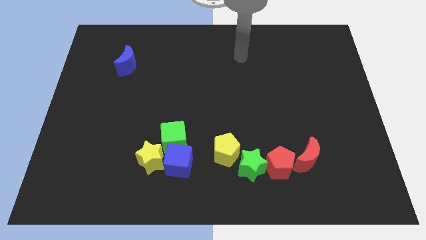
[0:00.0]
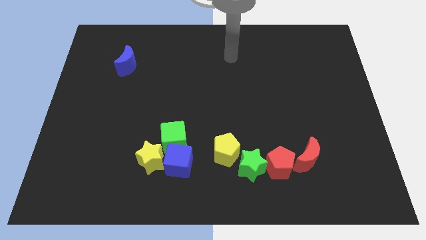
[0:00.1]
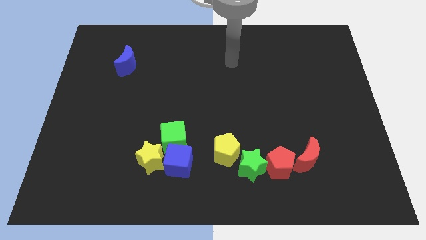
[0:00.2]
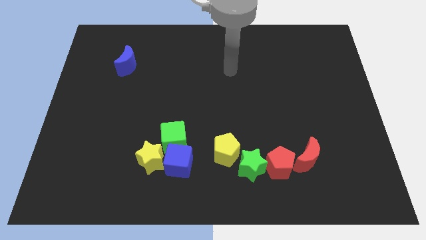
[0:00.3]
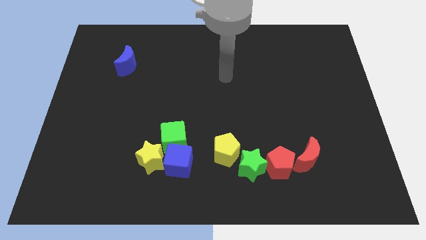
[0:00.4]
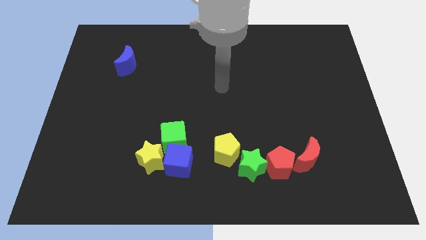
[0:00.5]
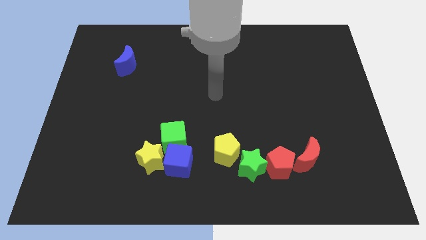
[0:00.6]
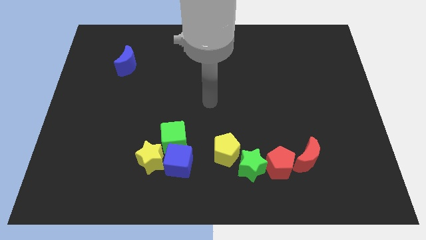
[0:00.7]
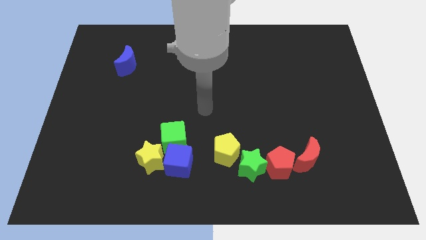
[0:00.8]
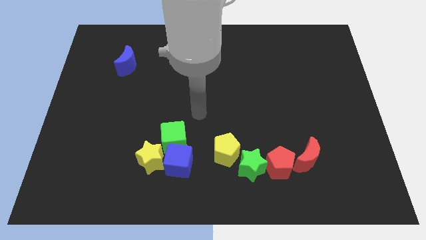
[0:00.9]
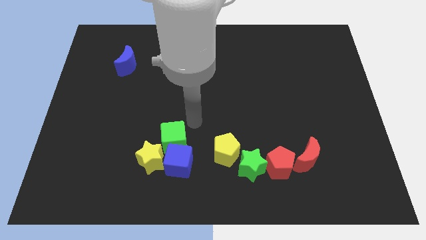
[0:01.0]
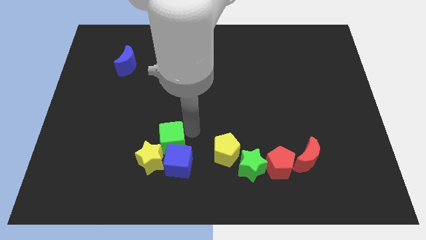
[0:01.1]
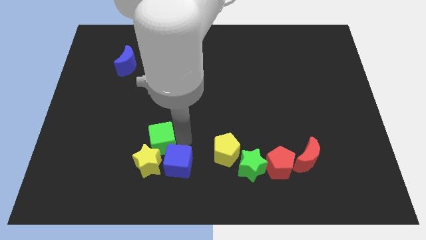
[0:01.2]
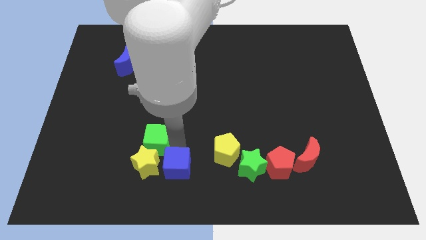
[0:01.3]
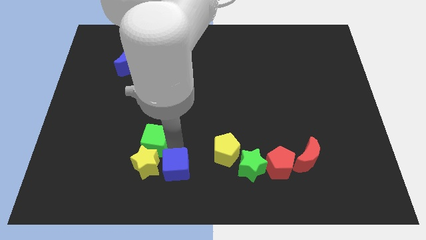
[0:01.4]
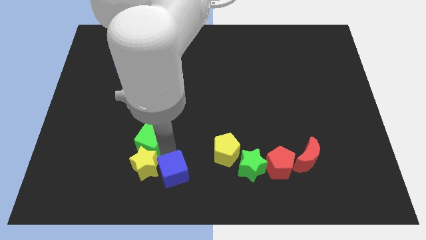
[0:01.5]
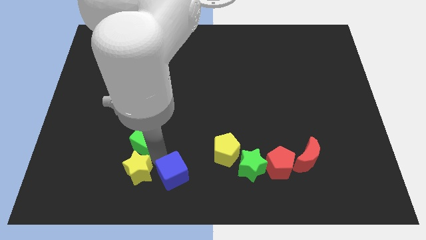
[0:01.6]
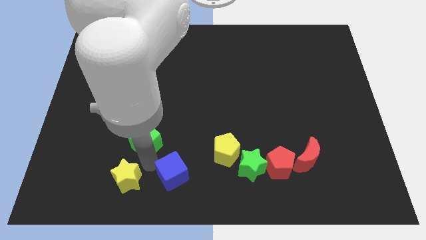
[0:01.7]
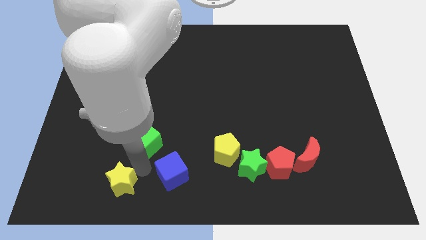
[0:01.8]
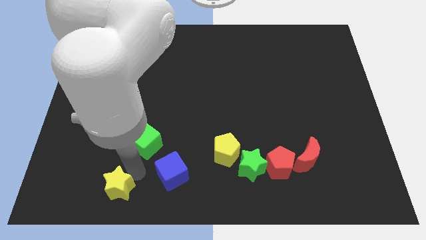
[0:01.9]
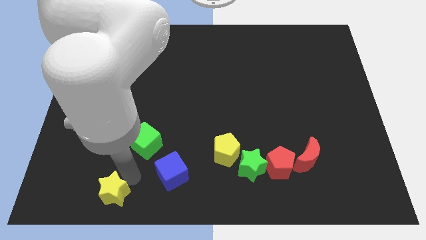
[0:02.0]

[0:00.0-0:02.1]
move the yellow star away from the blue cube and green cube

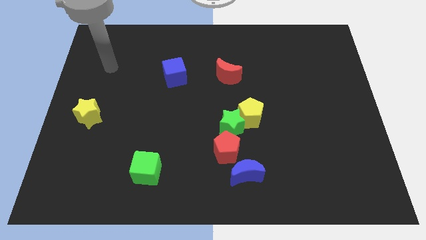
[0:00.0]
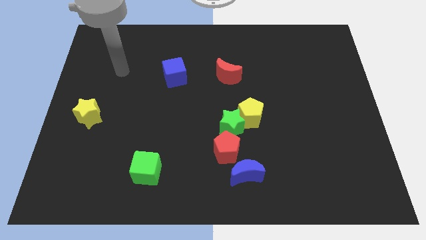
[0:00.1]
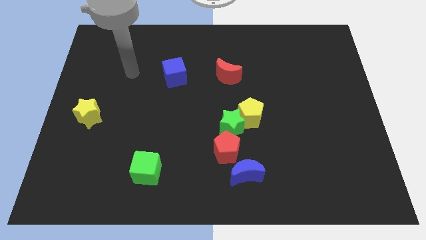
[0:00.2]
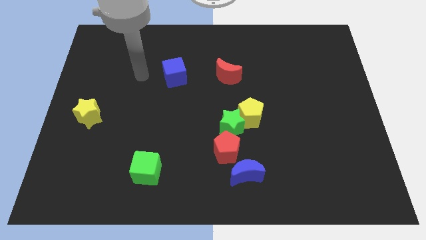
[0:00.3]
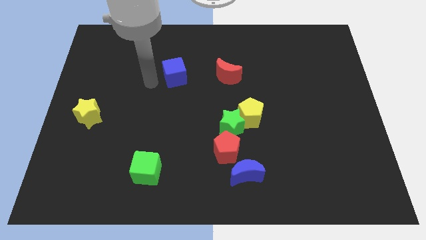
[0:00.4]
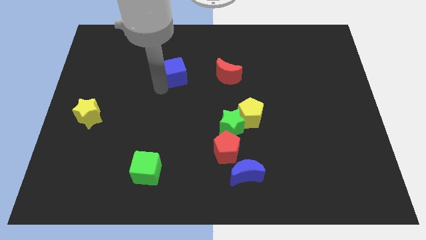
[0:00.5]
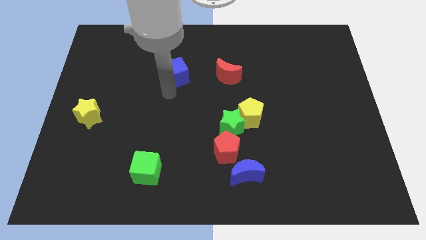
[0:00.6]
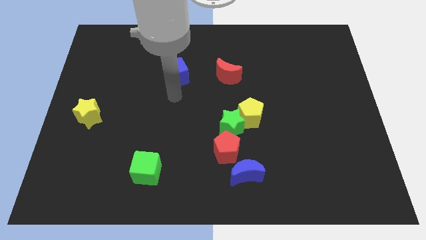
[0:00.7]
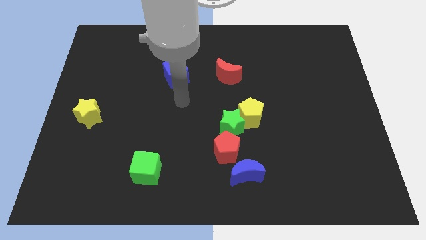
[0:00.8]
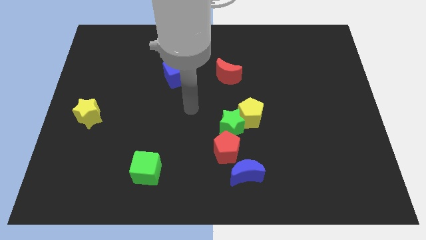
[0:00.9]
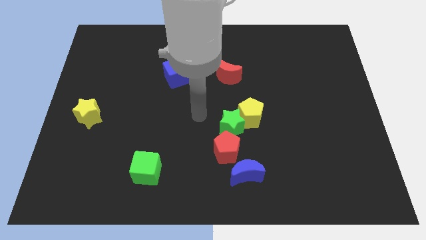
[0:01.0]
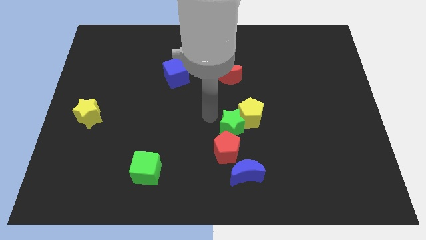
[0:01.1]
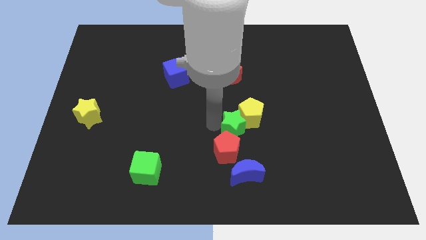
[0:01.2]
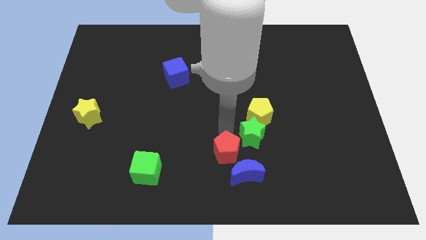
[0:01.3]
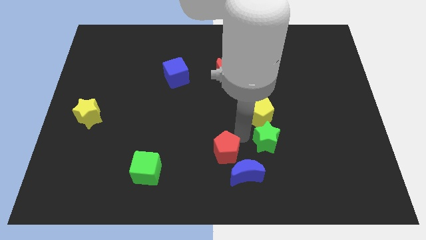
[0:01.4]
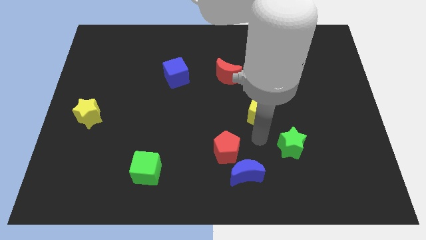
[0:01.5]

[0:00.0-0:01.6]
separate the yellow pentagon from the green star

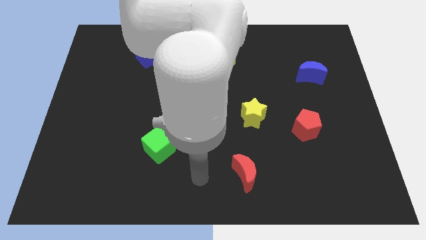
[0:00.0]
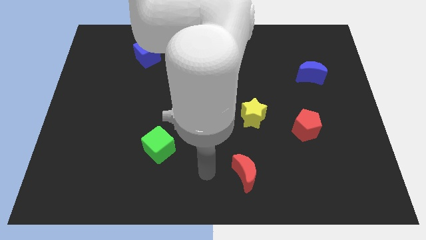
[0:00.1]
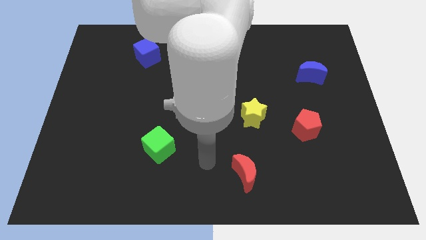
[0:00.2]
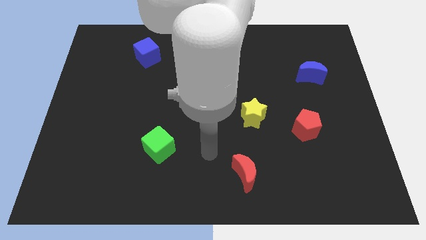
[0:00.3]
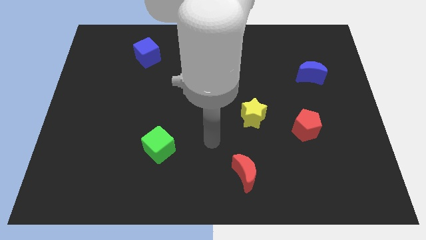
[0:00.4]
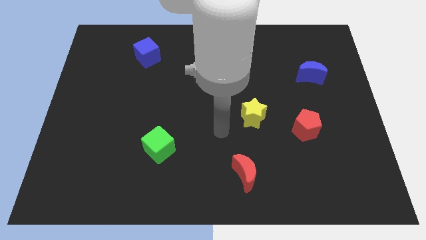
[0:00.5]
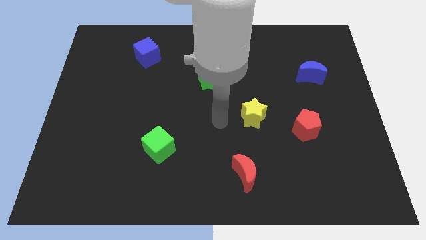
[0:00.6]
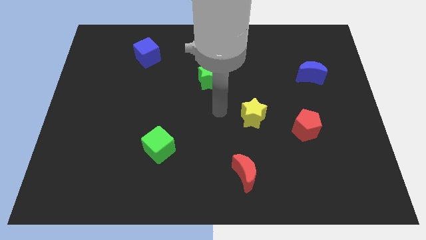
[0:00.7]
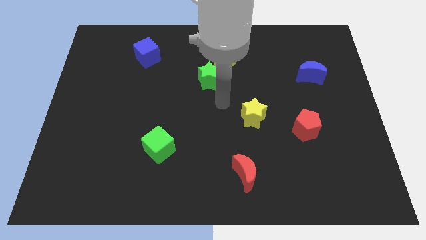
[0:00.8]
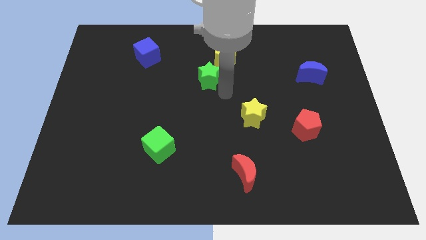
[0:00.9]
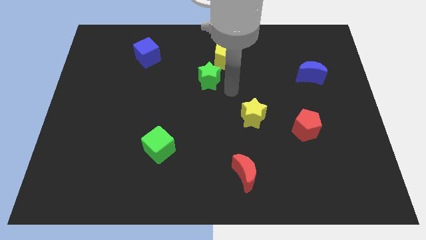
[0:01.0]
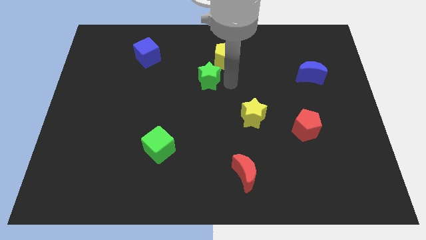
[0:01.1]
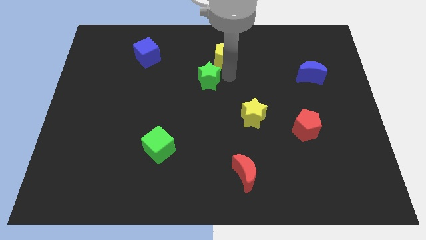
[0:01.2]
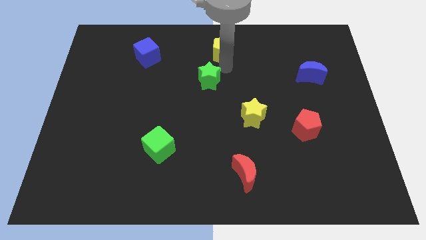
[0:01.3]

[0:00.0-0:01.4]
pull the green star apart from the yellow pentagon

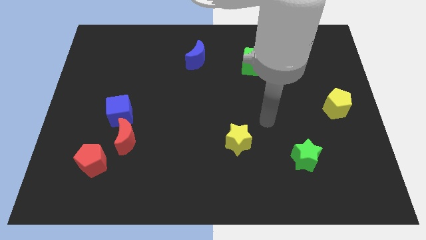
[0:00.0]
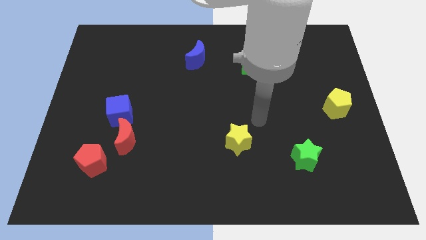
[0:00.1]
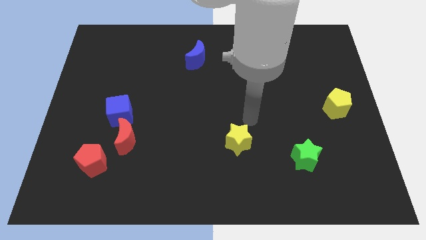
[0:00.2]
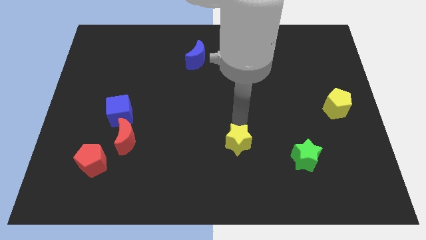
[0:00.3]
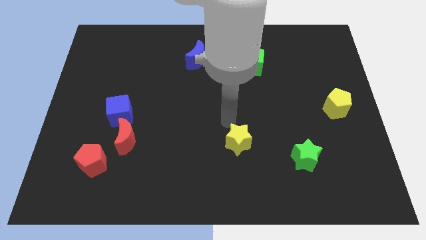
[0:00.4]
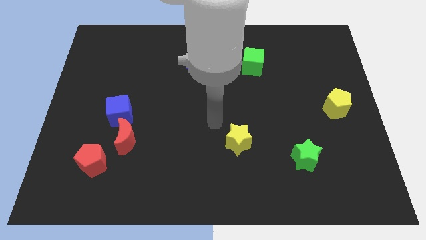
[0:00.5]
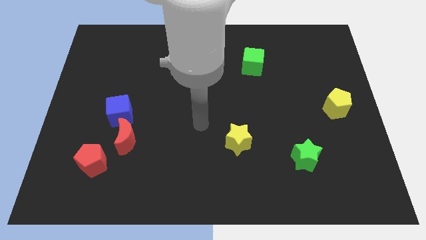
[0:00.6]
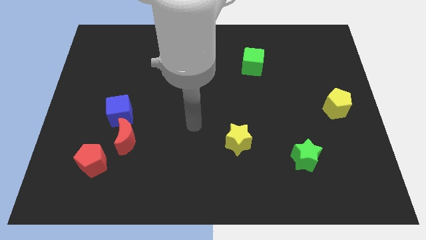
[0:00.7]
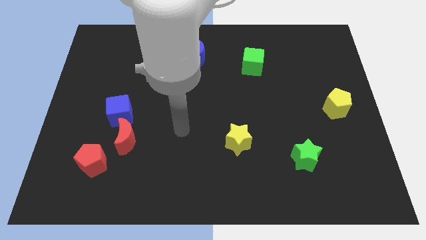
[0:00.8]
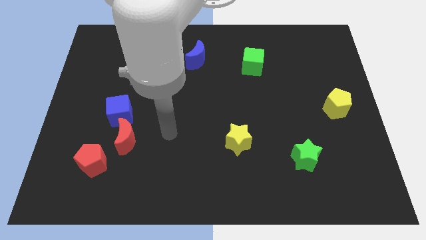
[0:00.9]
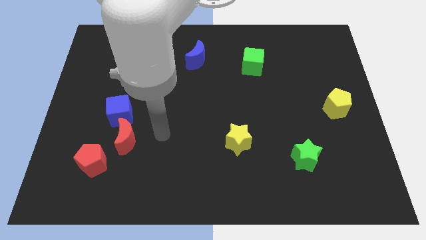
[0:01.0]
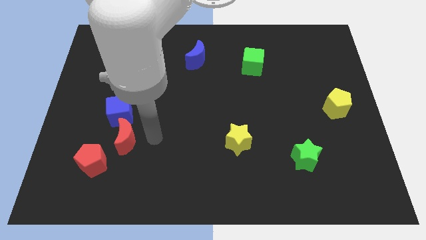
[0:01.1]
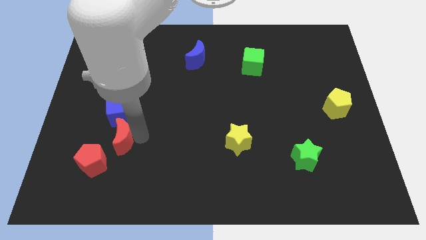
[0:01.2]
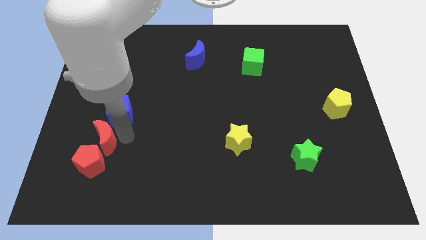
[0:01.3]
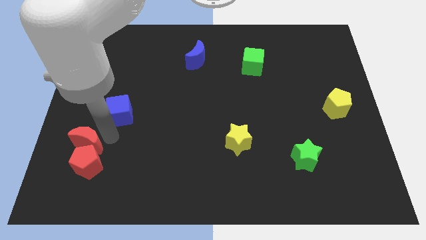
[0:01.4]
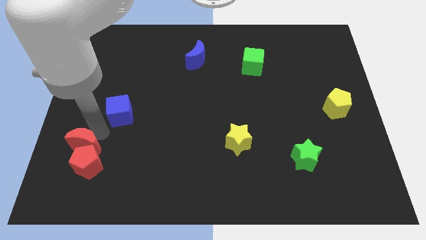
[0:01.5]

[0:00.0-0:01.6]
move the blue cube away from the red moon

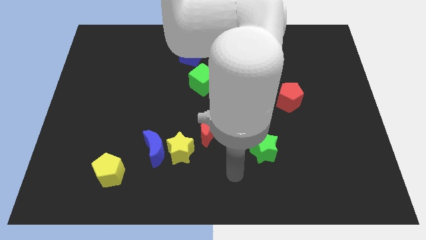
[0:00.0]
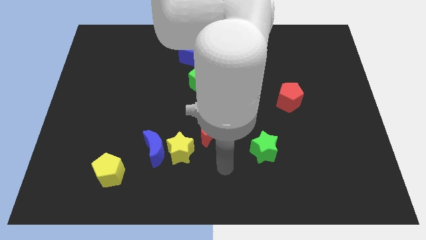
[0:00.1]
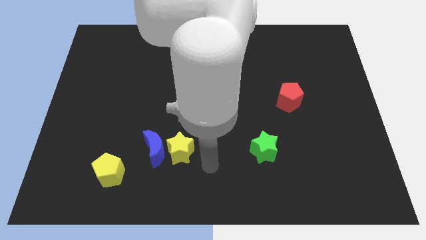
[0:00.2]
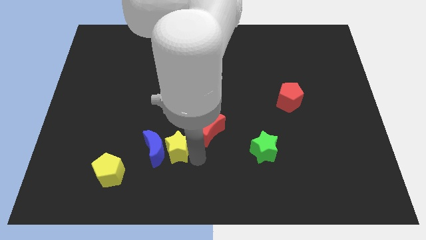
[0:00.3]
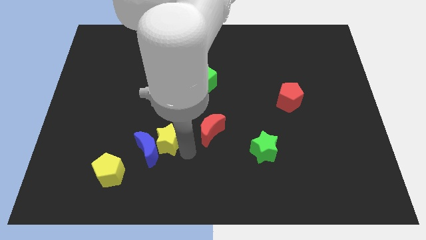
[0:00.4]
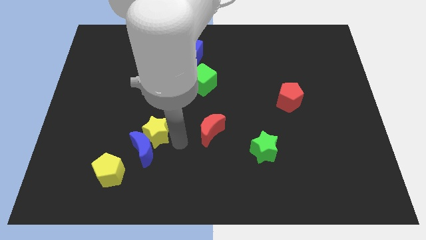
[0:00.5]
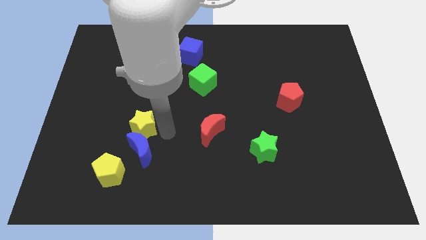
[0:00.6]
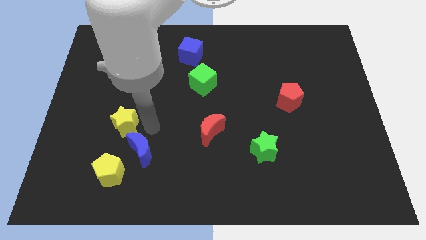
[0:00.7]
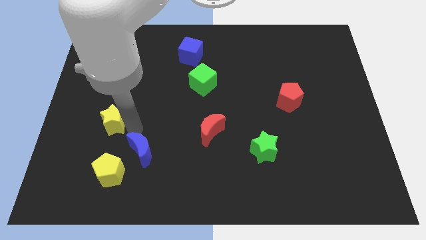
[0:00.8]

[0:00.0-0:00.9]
pull the blue moon apart from the yellow star

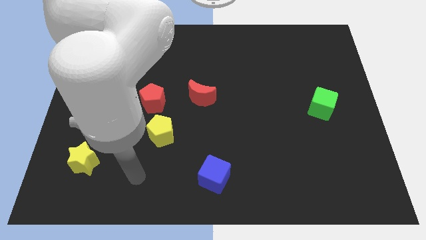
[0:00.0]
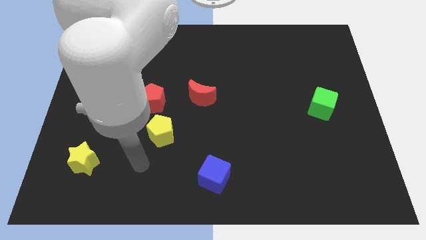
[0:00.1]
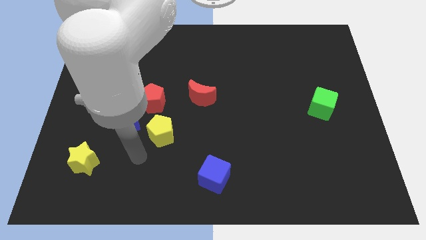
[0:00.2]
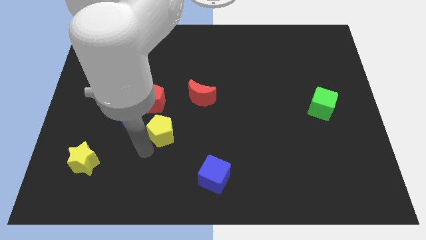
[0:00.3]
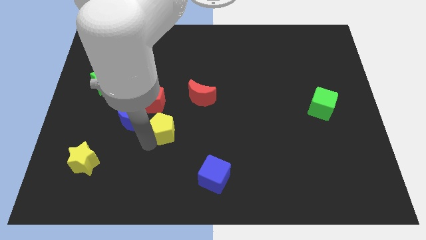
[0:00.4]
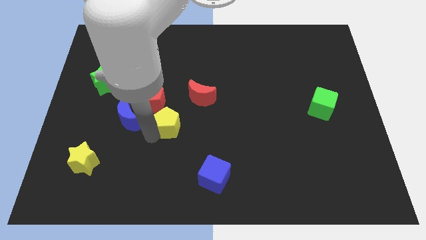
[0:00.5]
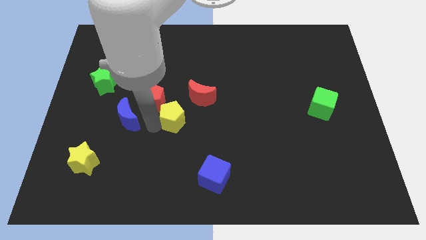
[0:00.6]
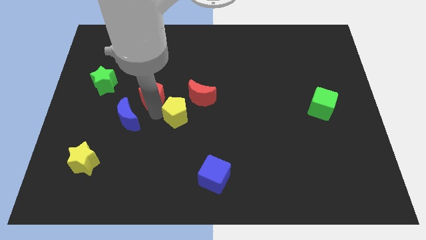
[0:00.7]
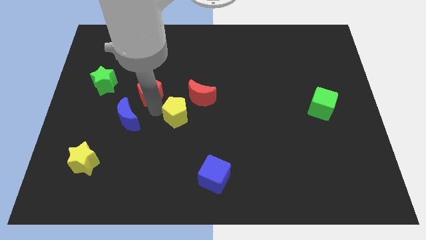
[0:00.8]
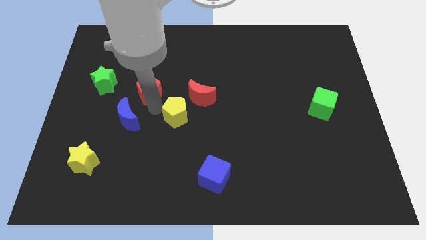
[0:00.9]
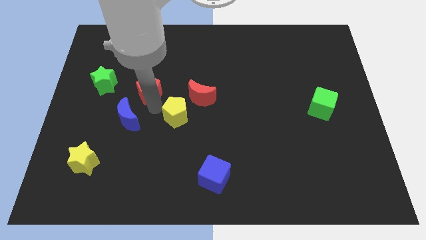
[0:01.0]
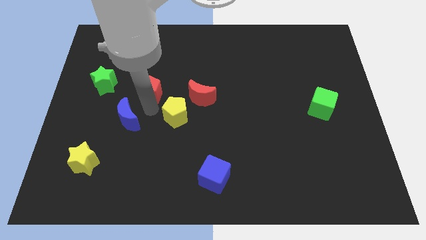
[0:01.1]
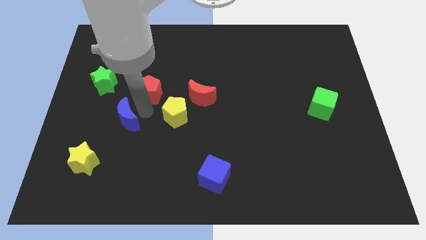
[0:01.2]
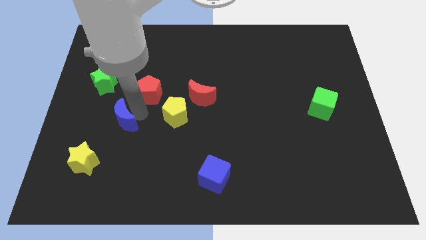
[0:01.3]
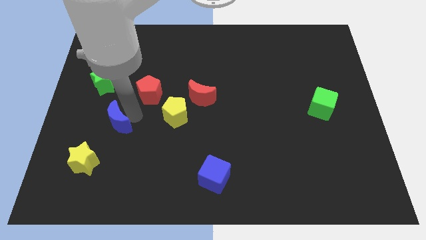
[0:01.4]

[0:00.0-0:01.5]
pull the blue moon apart from the red pentagon and yellow pentagon

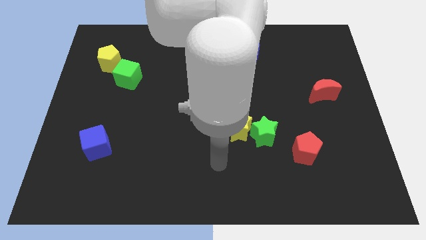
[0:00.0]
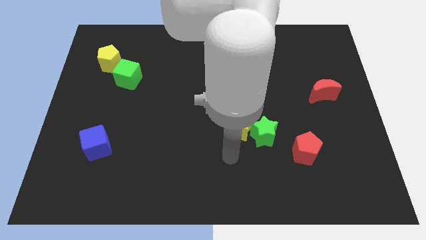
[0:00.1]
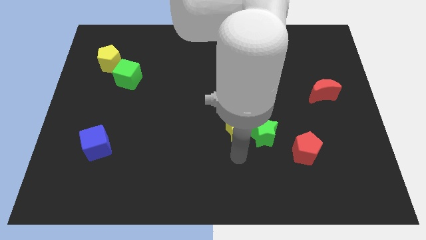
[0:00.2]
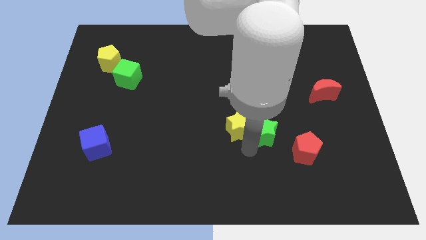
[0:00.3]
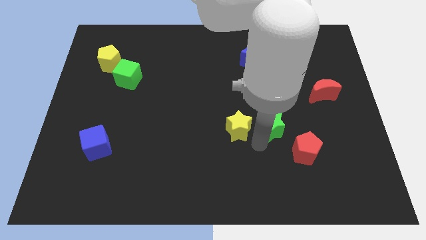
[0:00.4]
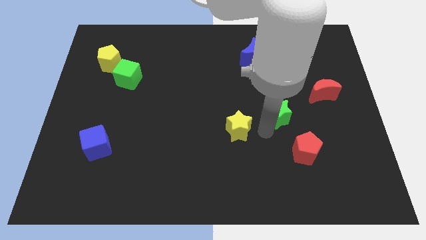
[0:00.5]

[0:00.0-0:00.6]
pull the yellow star apart from the green star
